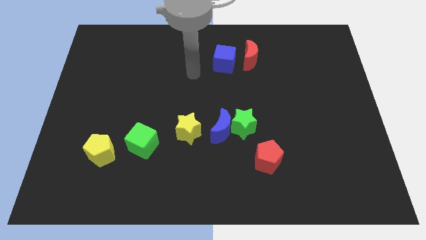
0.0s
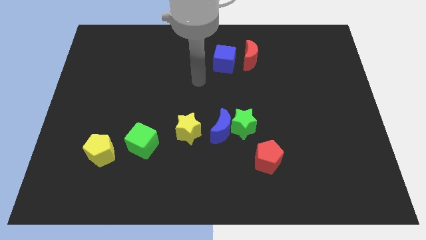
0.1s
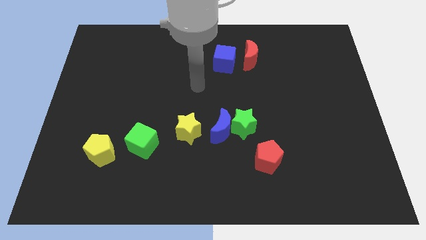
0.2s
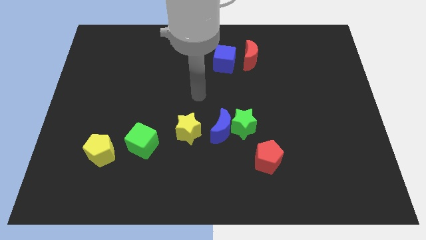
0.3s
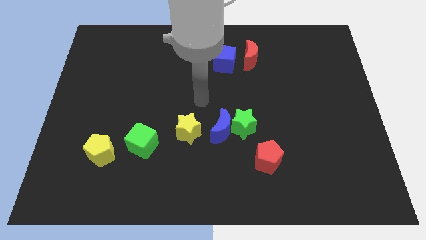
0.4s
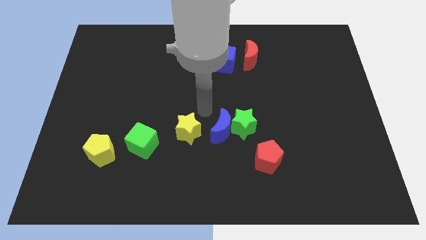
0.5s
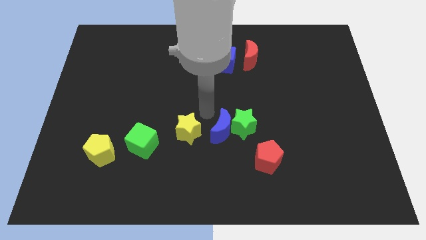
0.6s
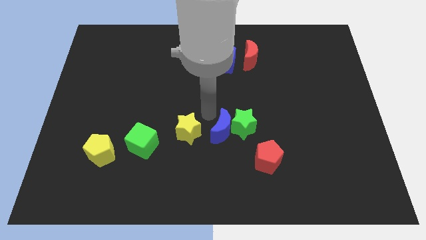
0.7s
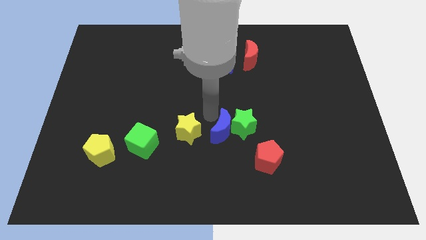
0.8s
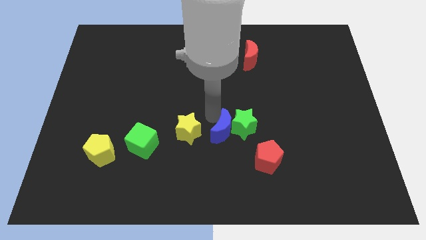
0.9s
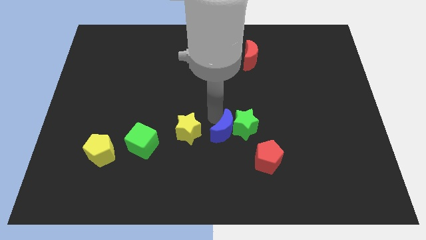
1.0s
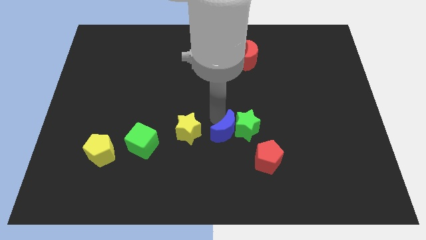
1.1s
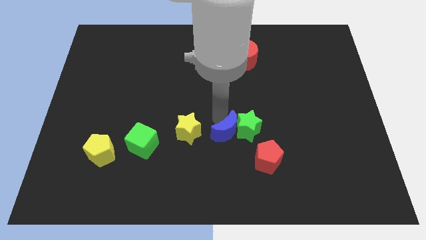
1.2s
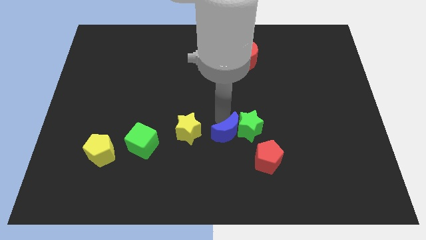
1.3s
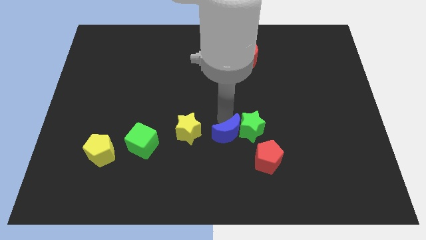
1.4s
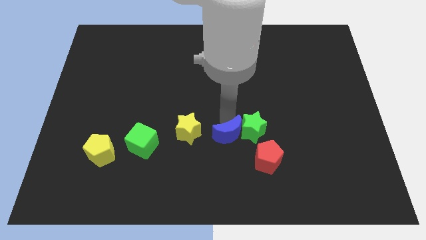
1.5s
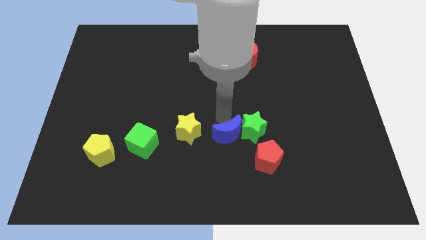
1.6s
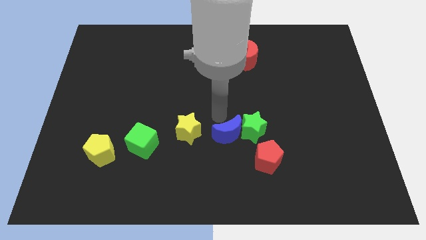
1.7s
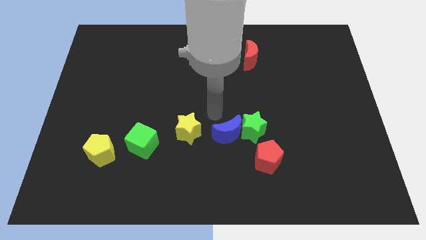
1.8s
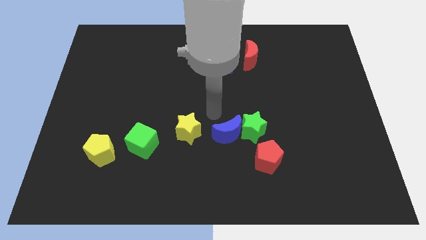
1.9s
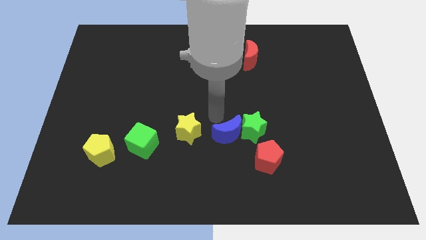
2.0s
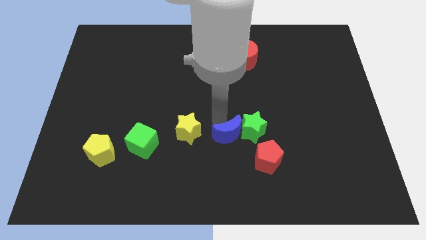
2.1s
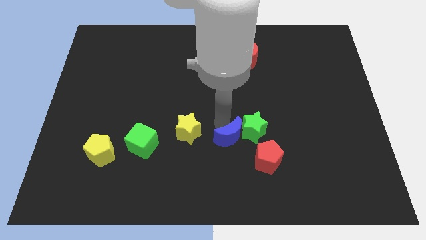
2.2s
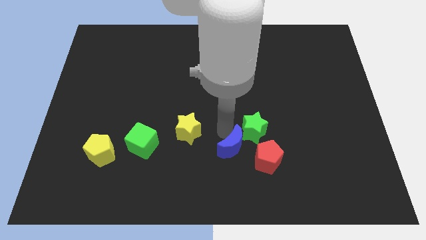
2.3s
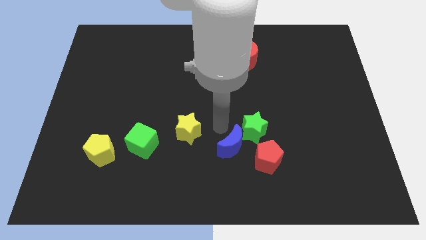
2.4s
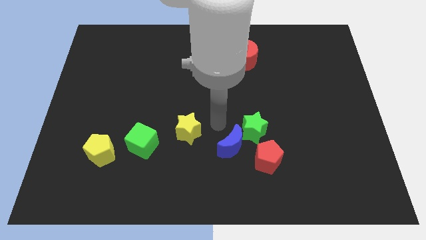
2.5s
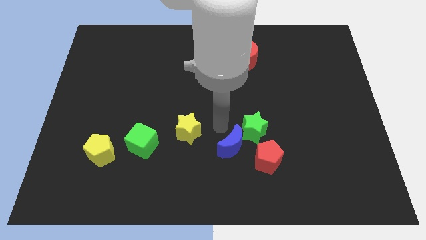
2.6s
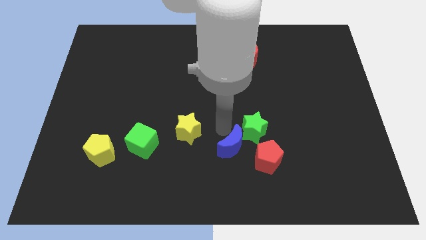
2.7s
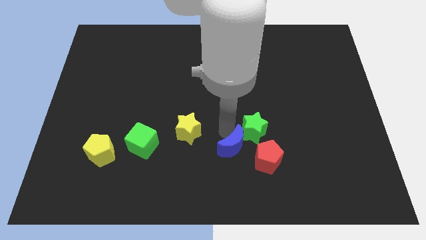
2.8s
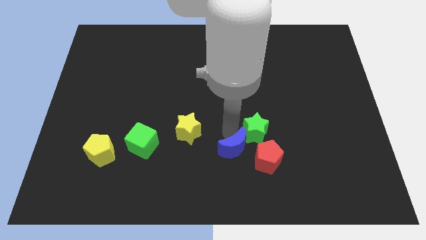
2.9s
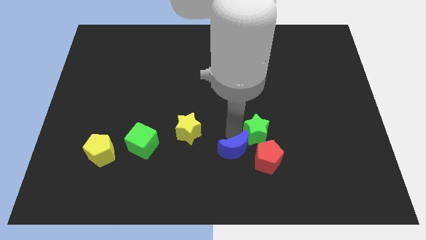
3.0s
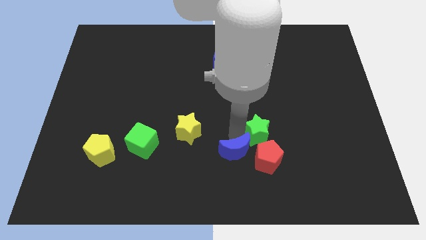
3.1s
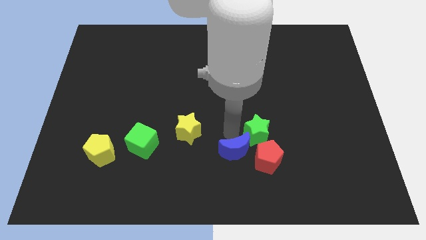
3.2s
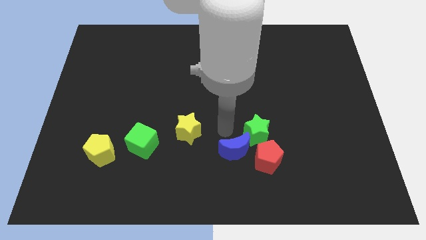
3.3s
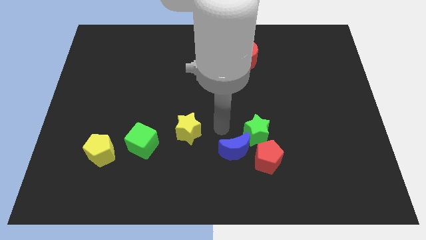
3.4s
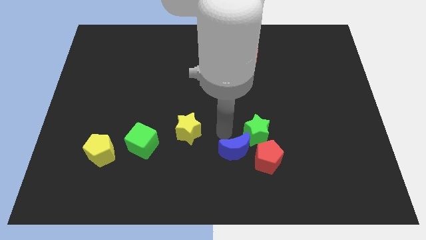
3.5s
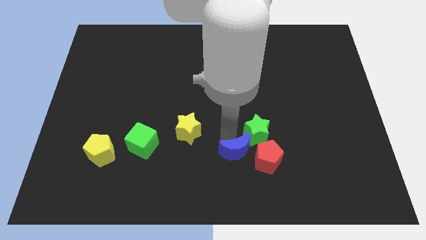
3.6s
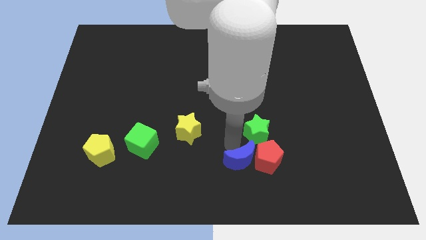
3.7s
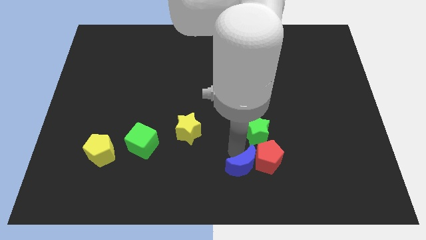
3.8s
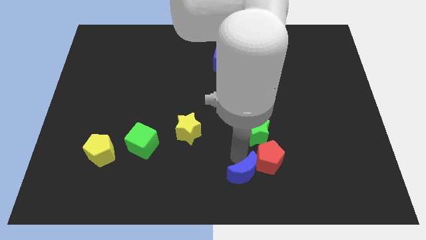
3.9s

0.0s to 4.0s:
pull the blue moon apart from the green star and yellow star

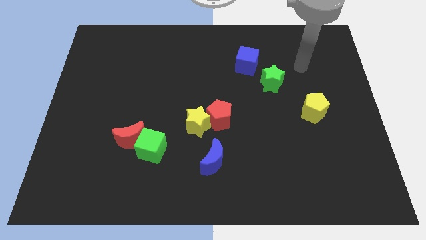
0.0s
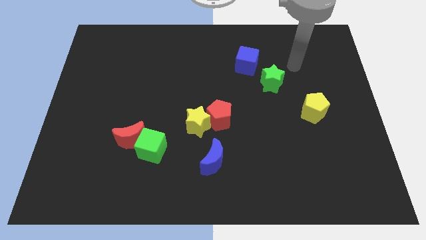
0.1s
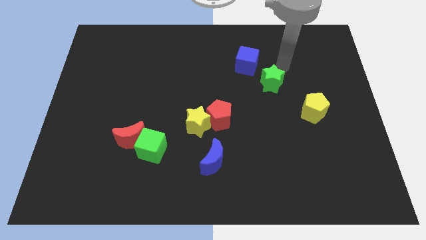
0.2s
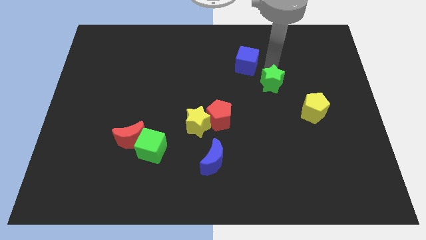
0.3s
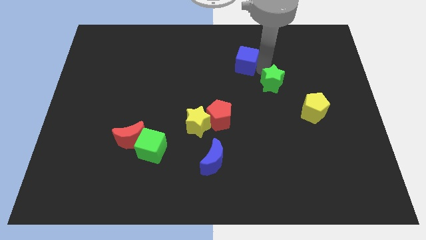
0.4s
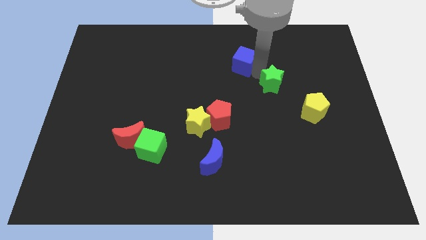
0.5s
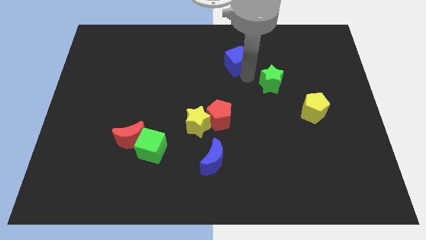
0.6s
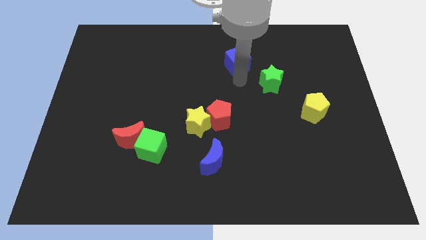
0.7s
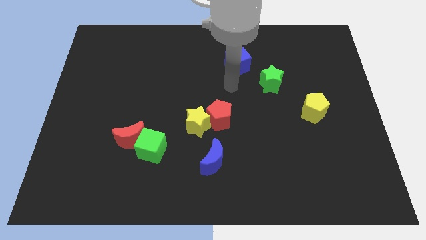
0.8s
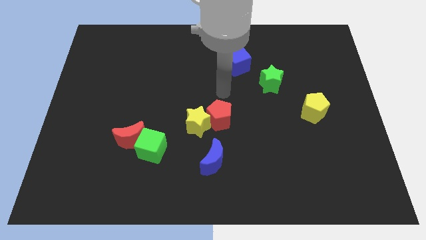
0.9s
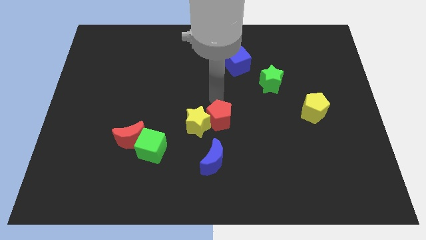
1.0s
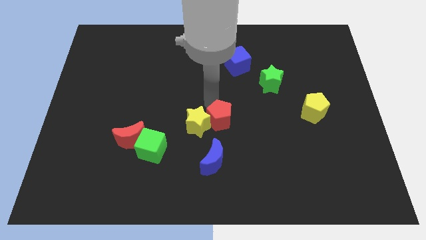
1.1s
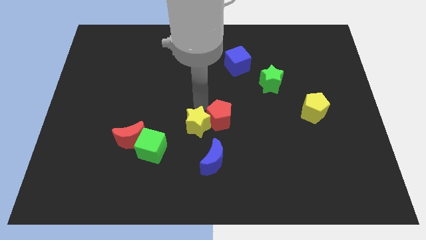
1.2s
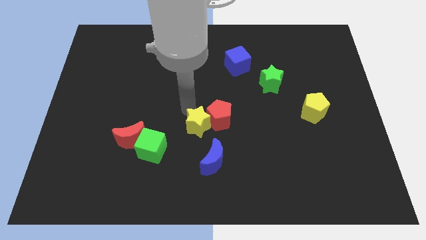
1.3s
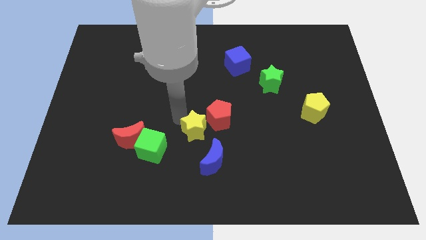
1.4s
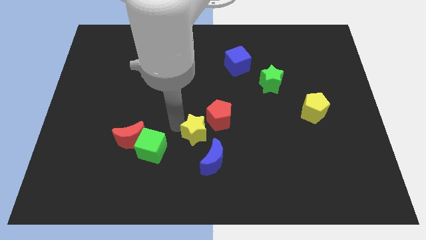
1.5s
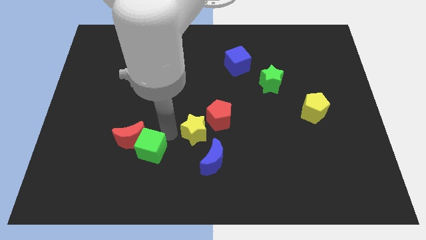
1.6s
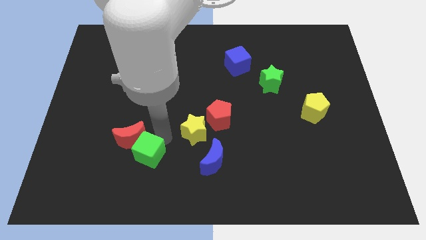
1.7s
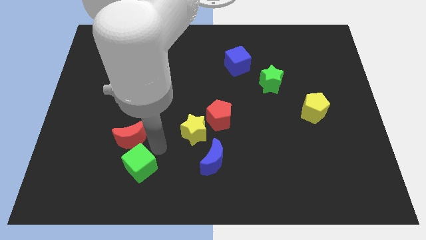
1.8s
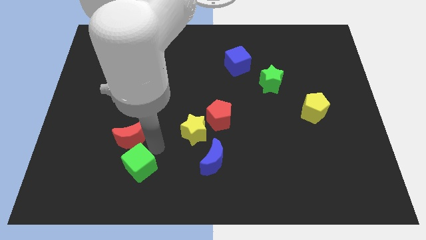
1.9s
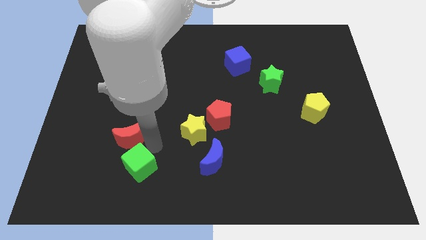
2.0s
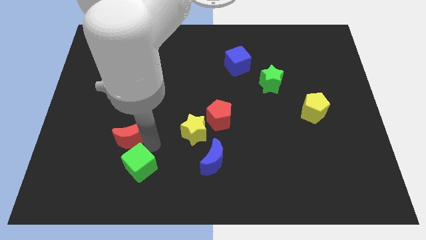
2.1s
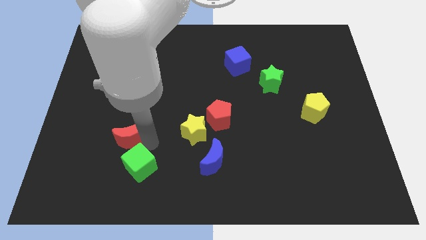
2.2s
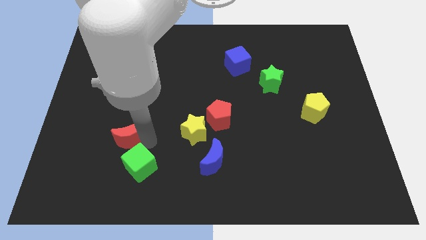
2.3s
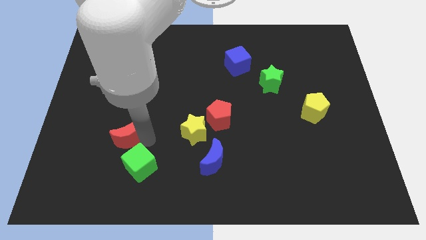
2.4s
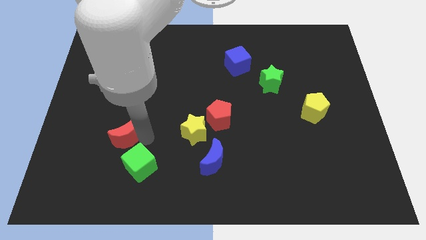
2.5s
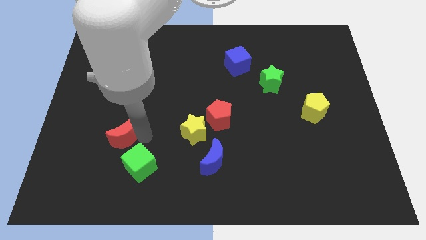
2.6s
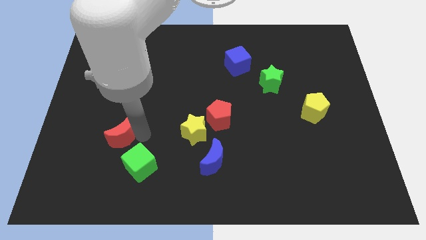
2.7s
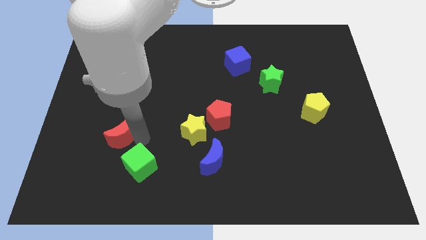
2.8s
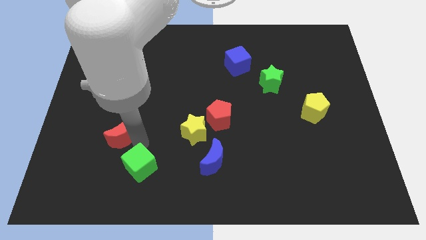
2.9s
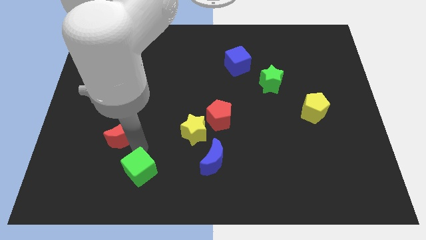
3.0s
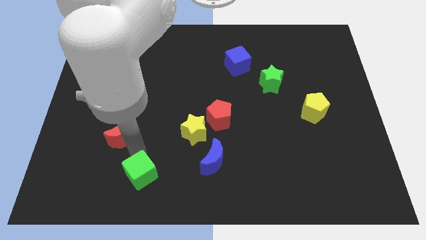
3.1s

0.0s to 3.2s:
separate the red moon from the green cube

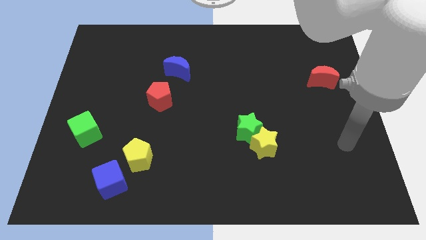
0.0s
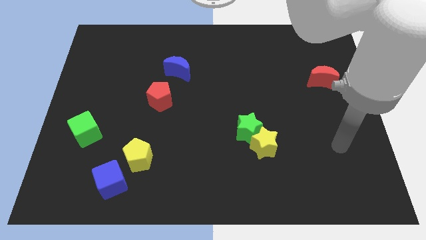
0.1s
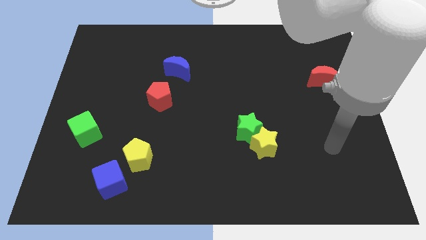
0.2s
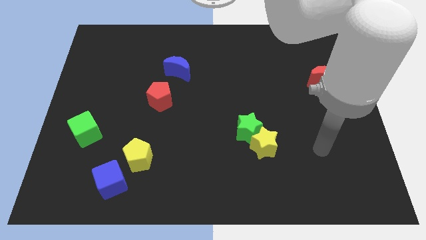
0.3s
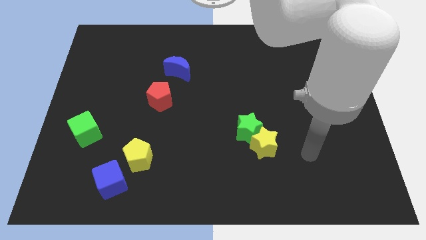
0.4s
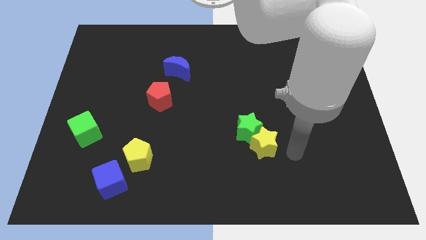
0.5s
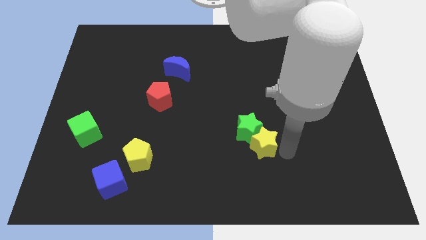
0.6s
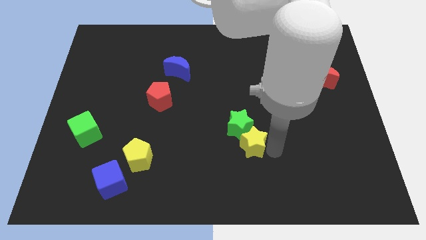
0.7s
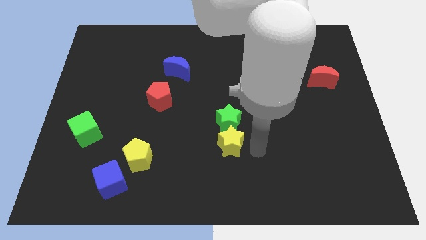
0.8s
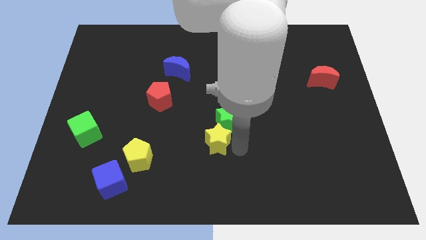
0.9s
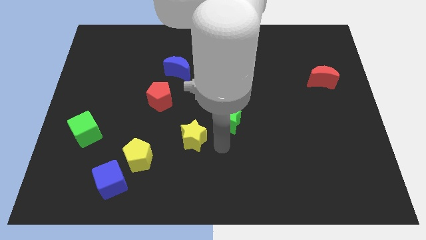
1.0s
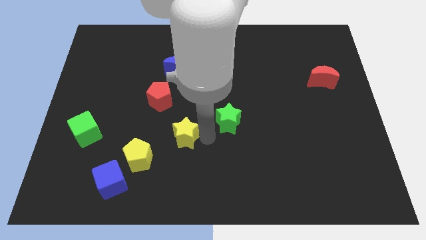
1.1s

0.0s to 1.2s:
pull the green star apart from the yellow star

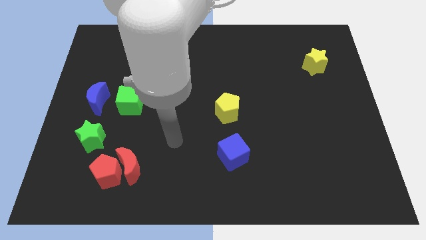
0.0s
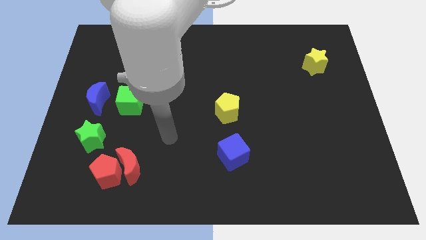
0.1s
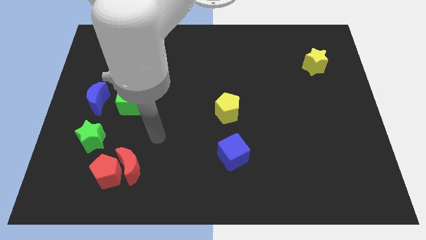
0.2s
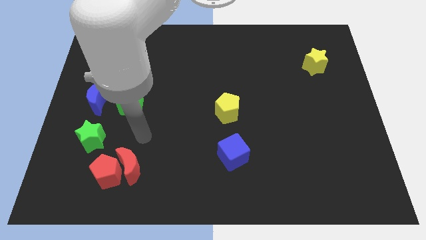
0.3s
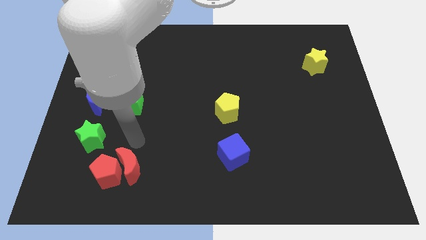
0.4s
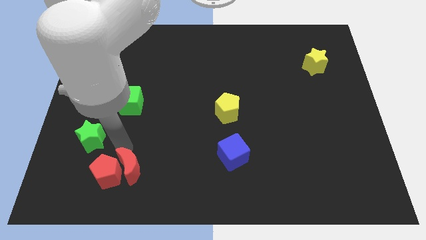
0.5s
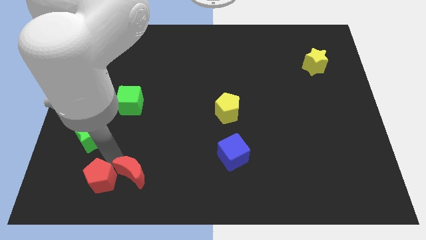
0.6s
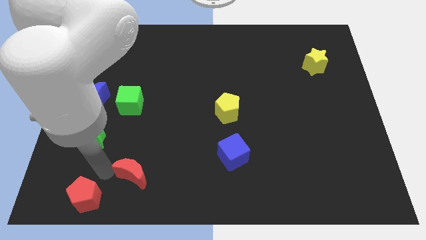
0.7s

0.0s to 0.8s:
pull the red moon apart from the red pentagon

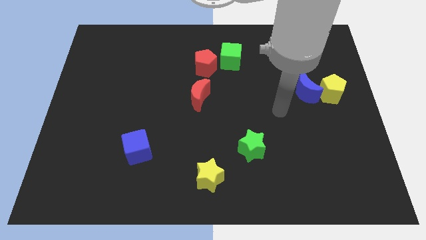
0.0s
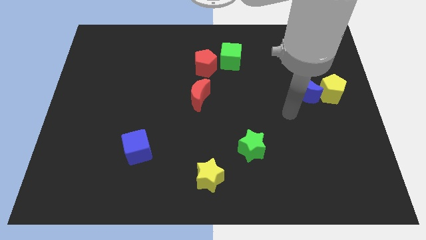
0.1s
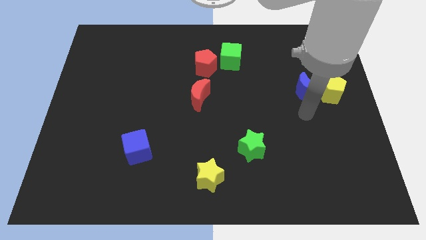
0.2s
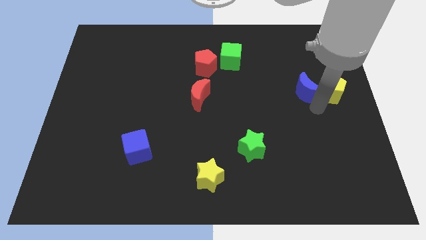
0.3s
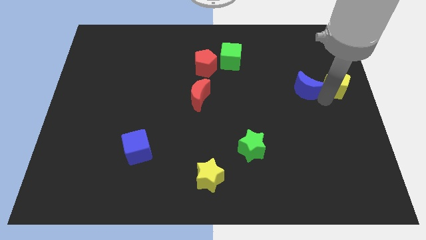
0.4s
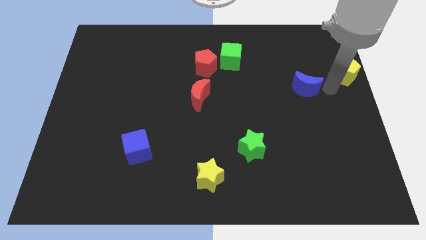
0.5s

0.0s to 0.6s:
move the blue moon away from the yellow pentagon
